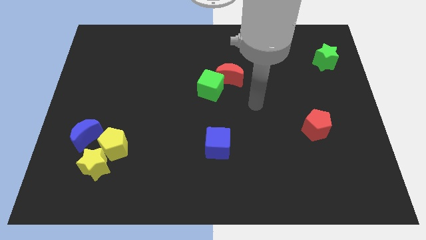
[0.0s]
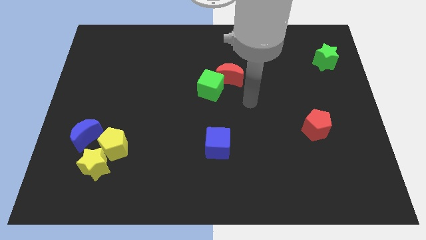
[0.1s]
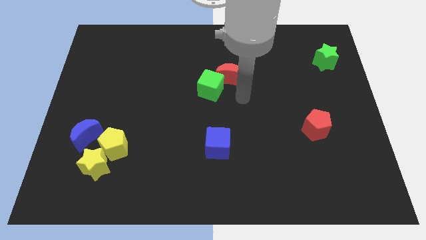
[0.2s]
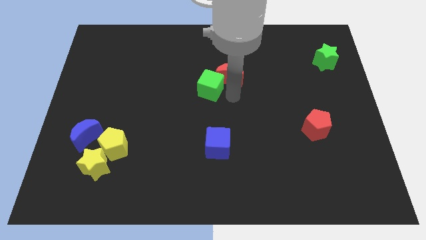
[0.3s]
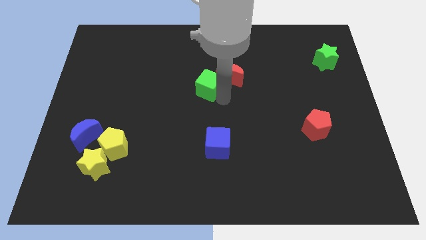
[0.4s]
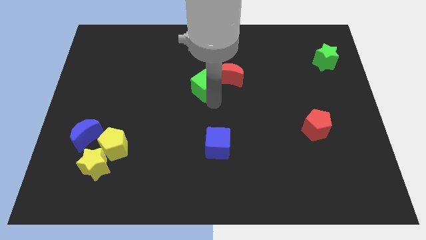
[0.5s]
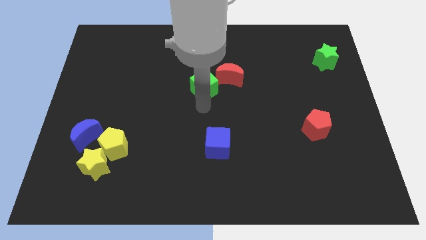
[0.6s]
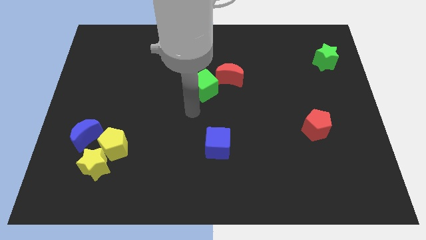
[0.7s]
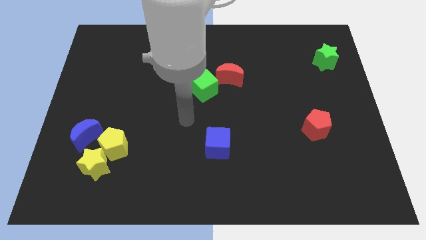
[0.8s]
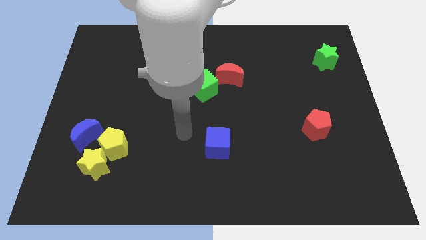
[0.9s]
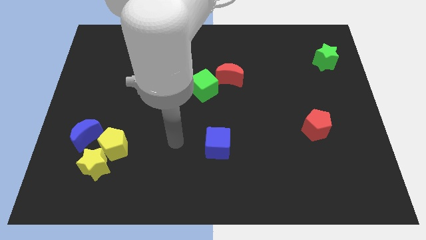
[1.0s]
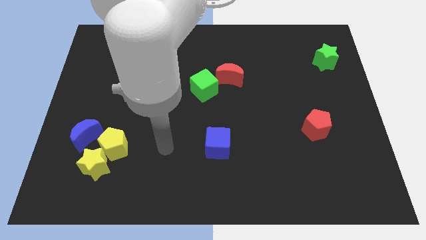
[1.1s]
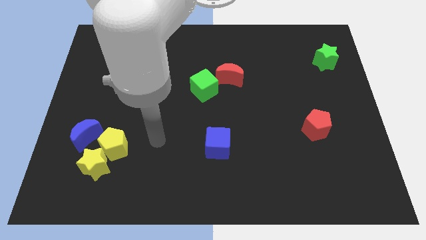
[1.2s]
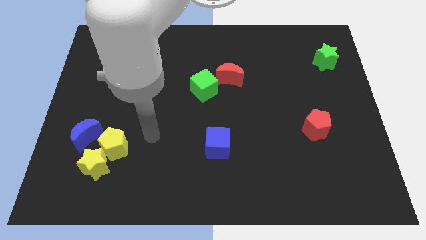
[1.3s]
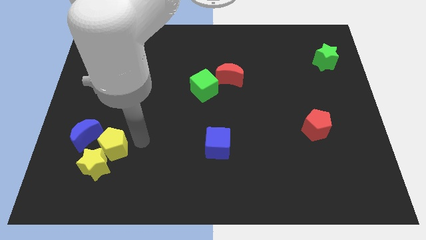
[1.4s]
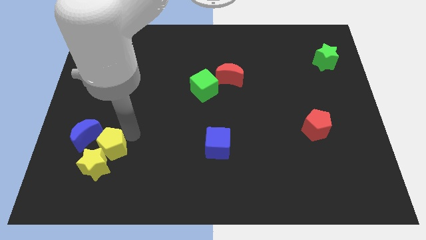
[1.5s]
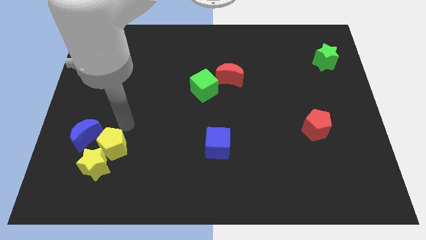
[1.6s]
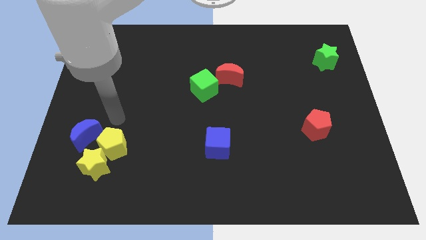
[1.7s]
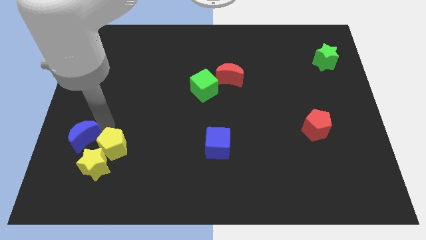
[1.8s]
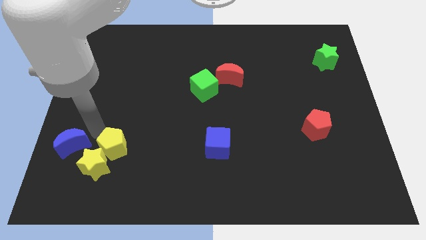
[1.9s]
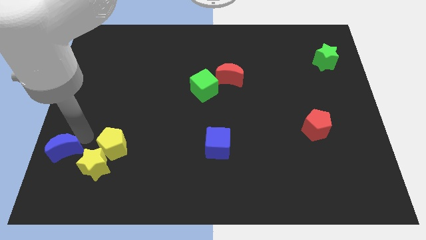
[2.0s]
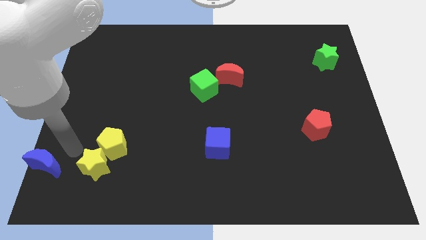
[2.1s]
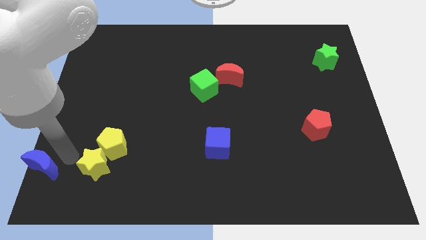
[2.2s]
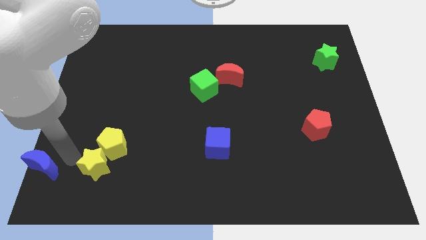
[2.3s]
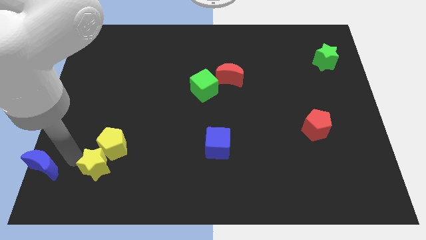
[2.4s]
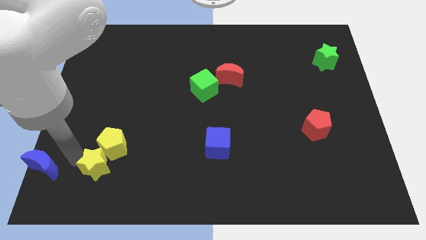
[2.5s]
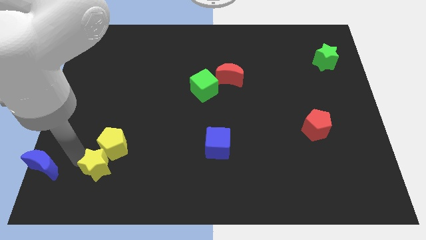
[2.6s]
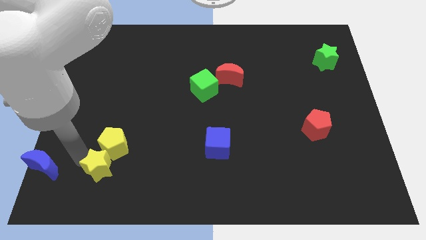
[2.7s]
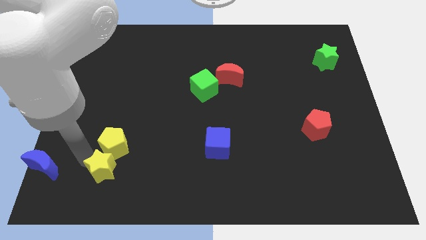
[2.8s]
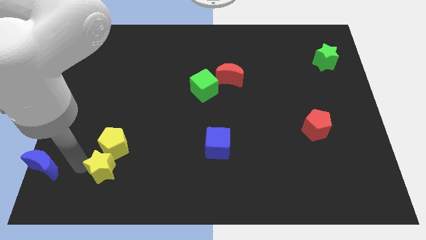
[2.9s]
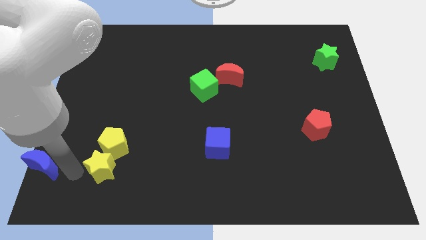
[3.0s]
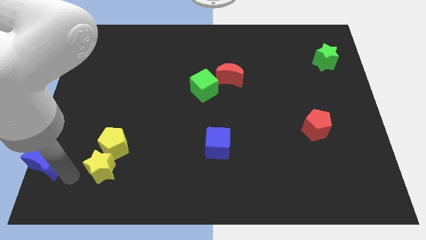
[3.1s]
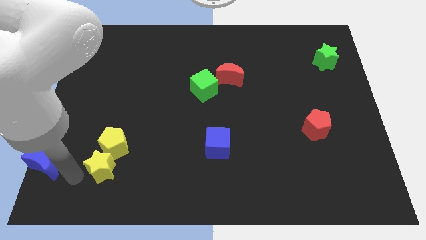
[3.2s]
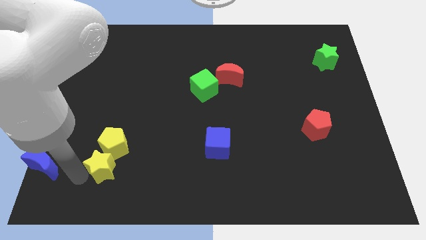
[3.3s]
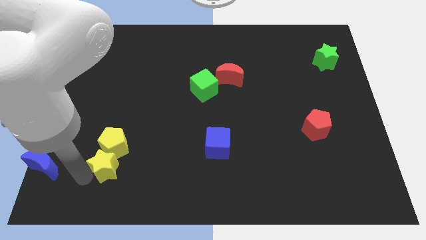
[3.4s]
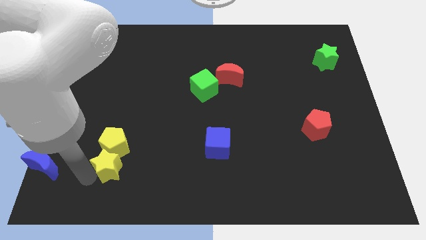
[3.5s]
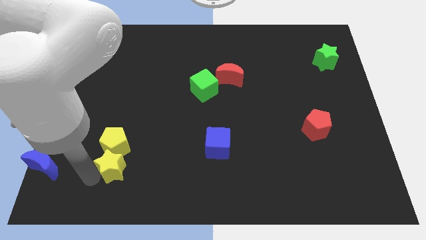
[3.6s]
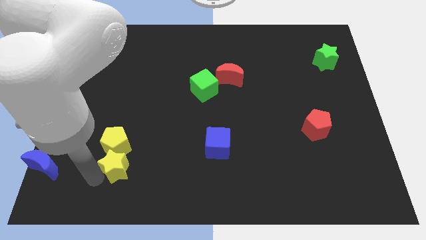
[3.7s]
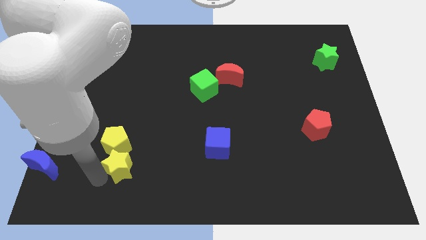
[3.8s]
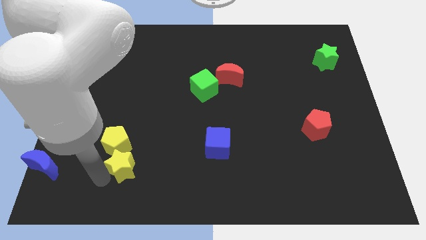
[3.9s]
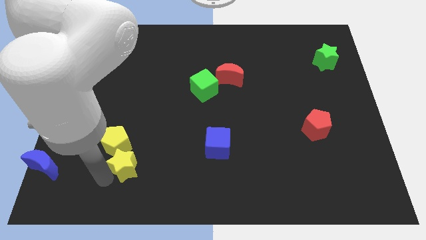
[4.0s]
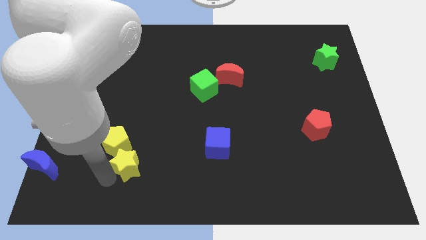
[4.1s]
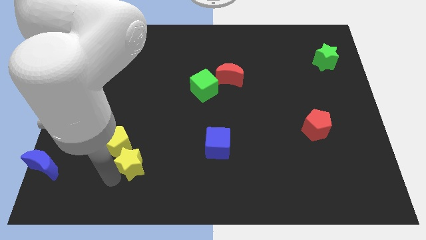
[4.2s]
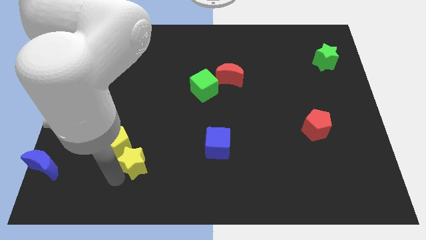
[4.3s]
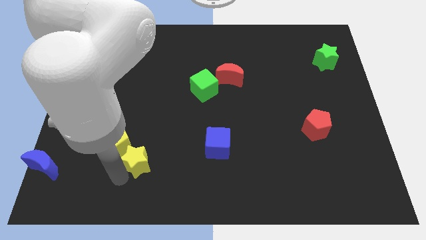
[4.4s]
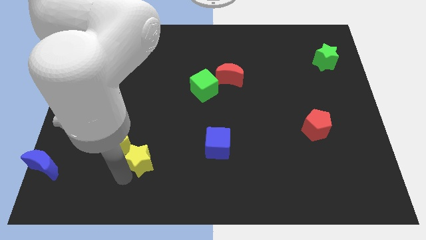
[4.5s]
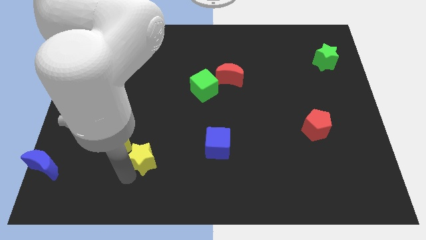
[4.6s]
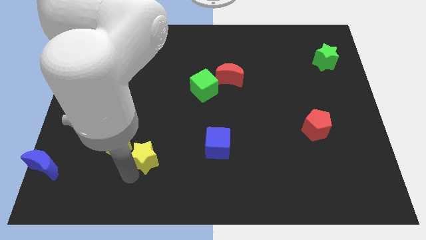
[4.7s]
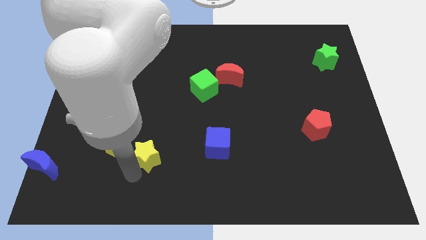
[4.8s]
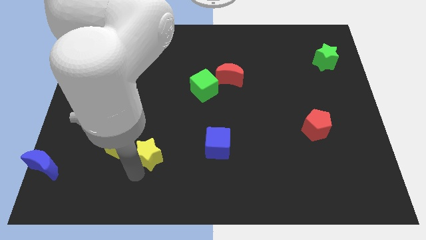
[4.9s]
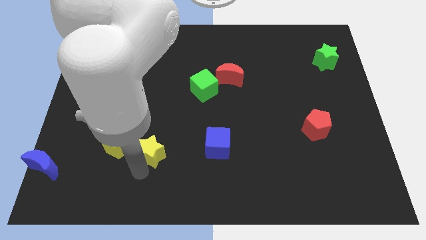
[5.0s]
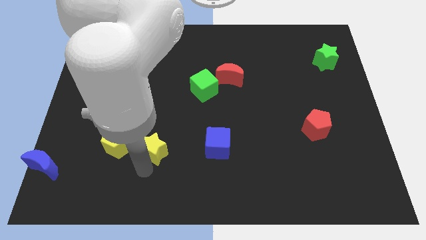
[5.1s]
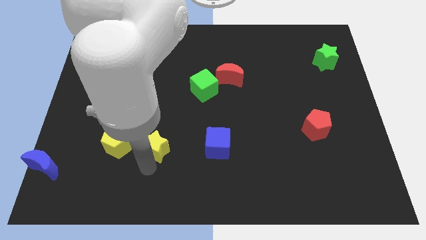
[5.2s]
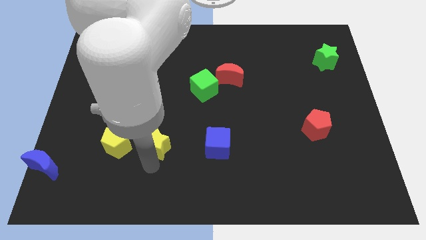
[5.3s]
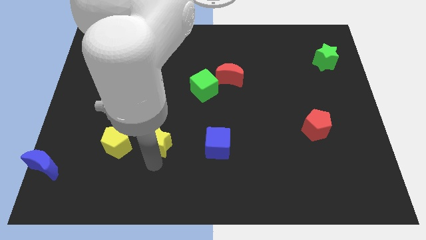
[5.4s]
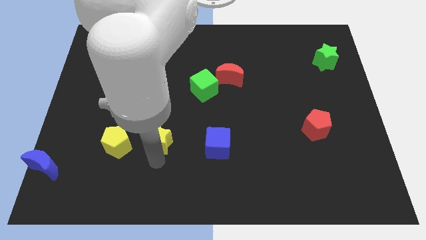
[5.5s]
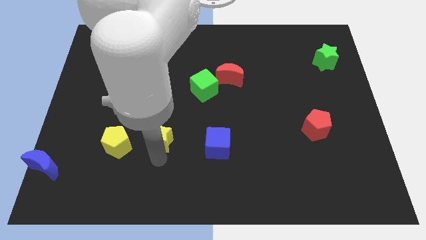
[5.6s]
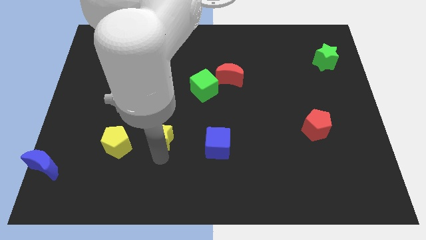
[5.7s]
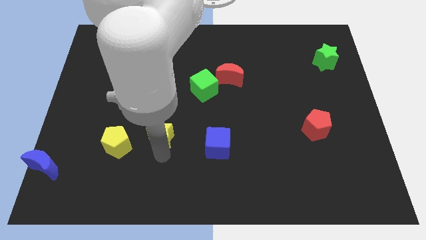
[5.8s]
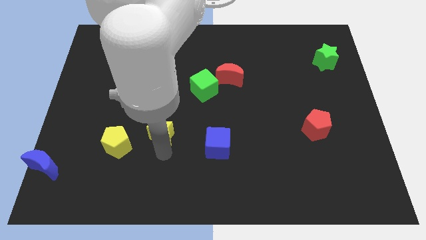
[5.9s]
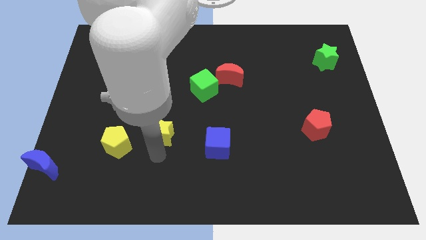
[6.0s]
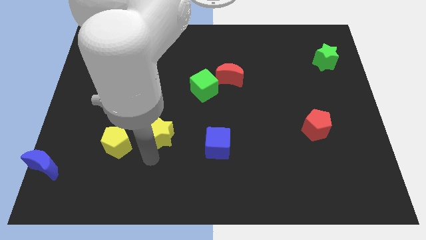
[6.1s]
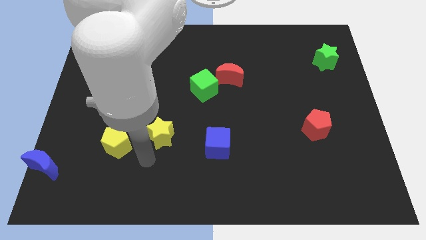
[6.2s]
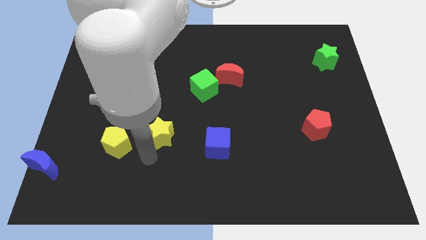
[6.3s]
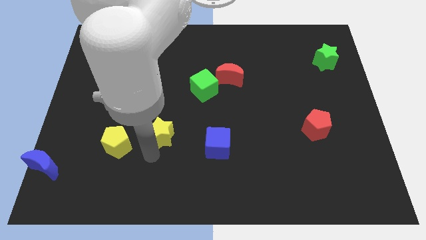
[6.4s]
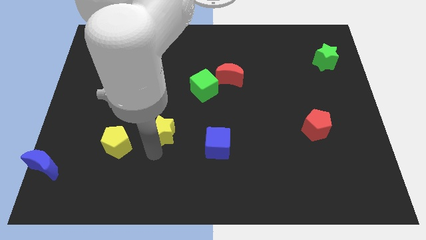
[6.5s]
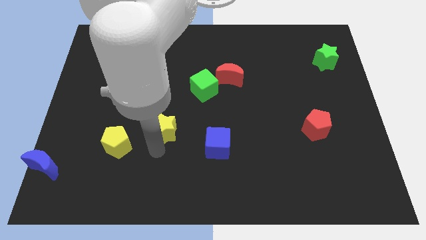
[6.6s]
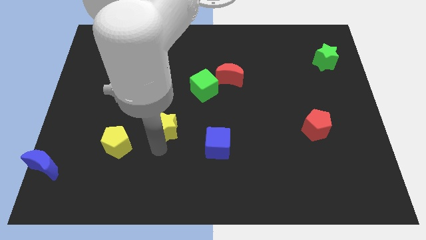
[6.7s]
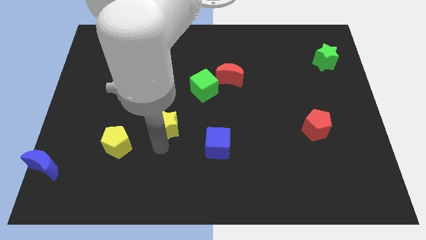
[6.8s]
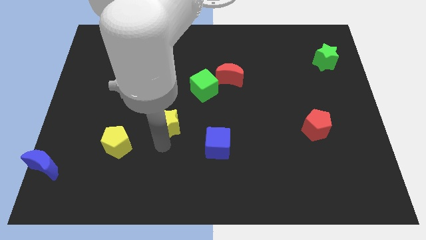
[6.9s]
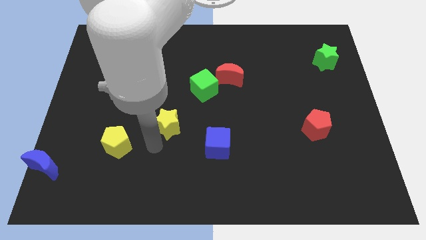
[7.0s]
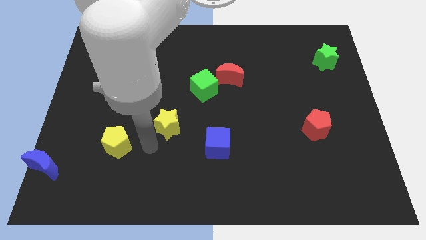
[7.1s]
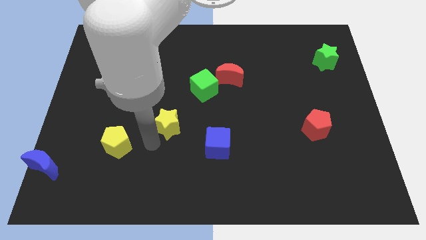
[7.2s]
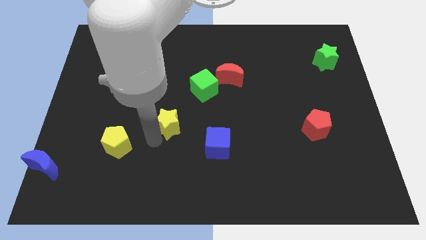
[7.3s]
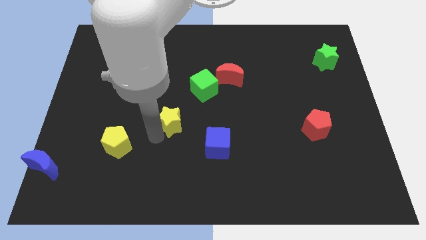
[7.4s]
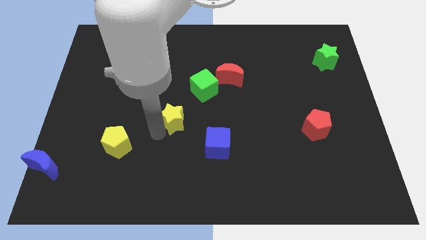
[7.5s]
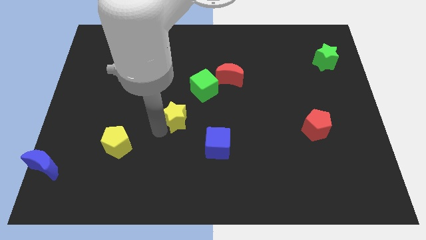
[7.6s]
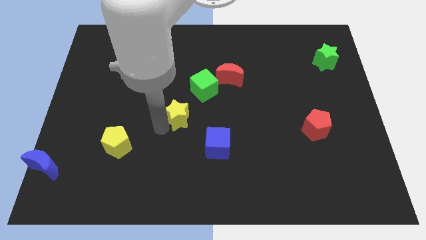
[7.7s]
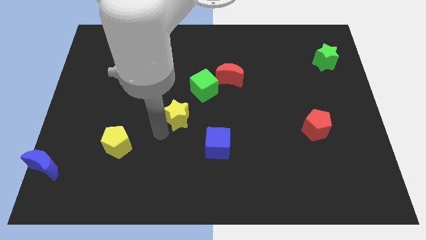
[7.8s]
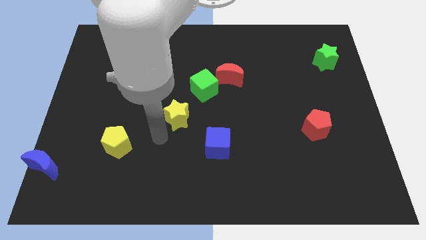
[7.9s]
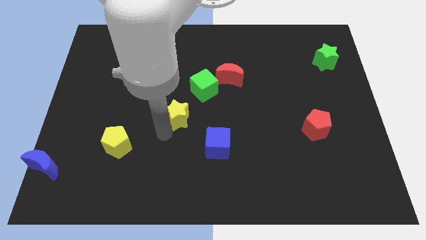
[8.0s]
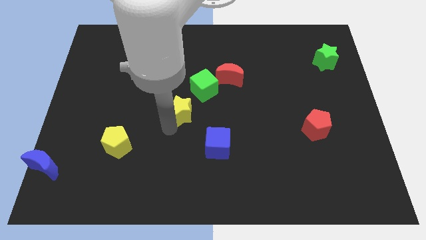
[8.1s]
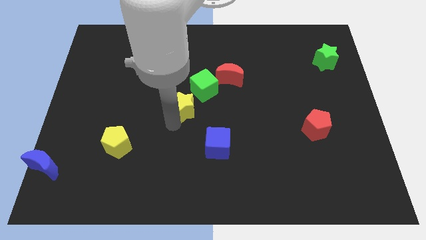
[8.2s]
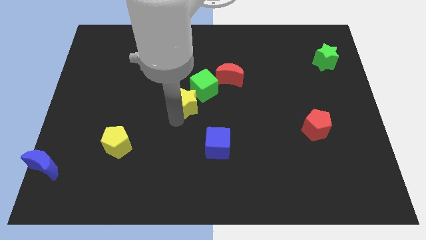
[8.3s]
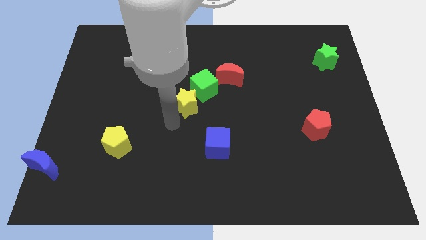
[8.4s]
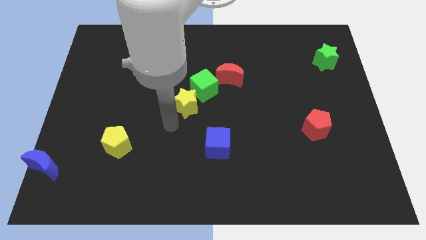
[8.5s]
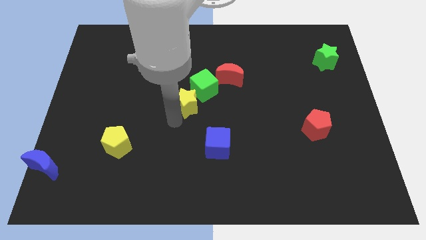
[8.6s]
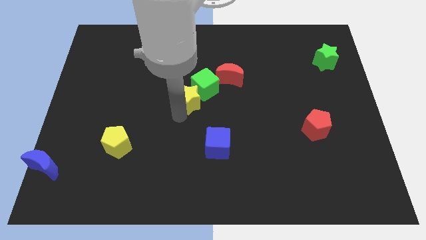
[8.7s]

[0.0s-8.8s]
push the yellow star next to the green cube
